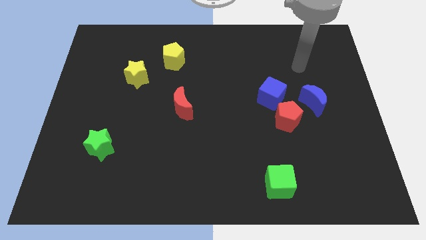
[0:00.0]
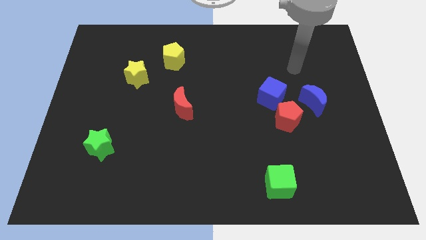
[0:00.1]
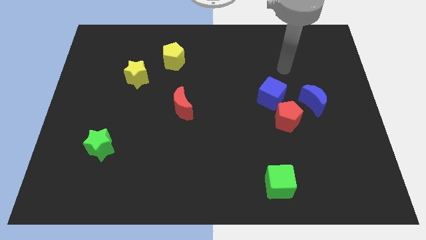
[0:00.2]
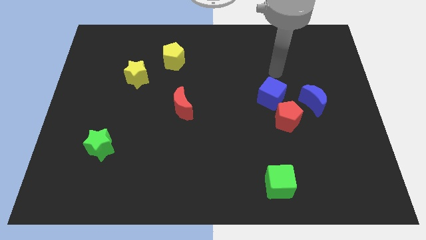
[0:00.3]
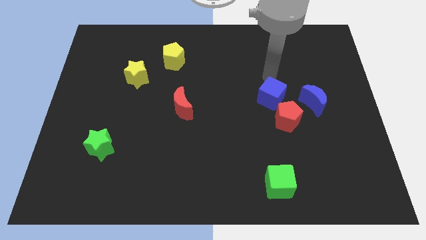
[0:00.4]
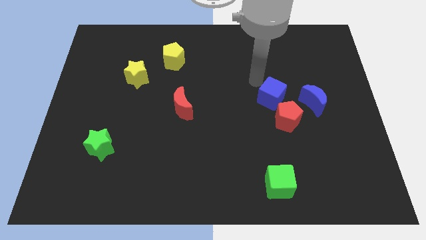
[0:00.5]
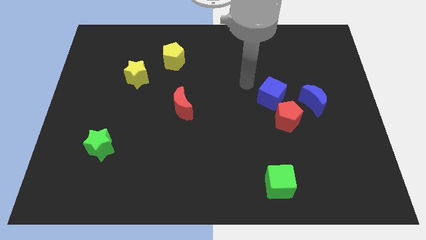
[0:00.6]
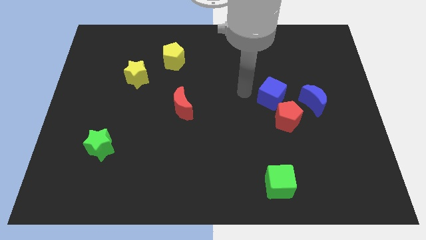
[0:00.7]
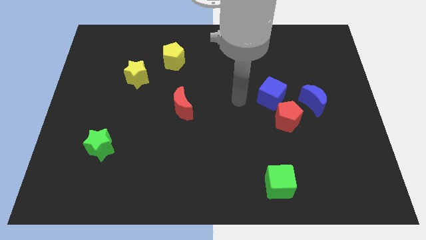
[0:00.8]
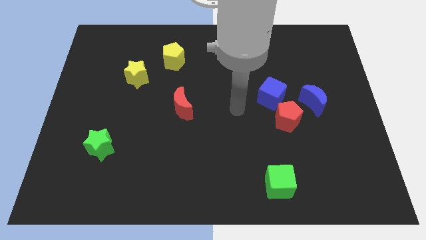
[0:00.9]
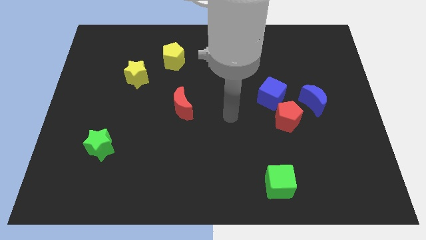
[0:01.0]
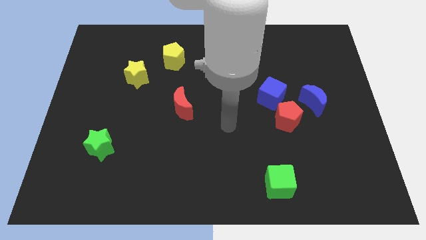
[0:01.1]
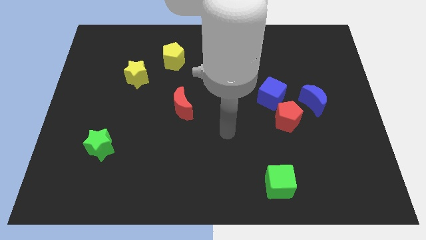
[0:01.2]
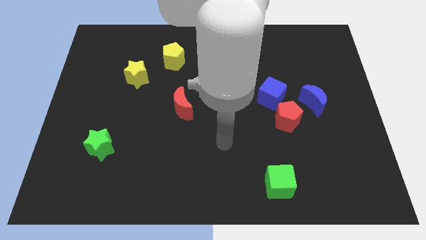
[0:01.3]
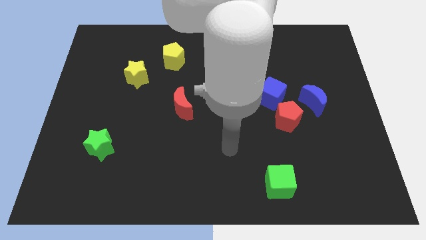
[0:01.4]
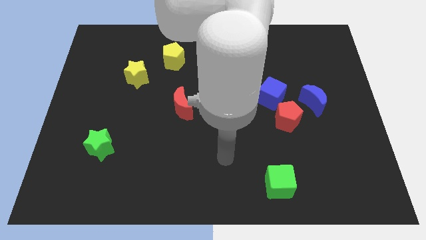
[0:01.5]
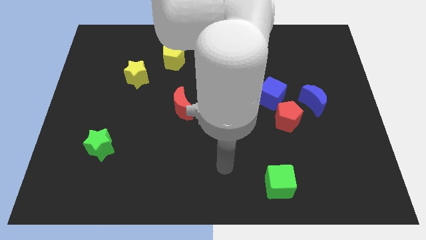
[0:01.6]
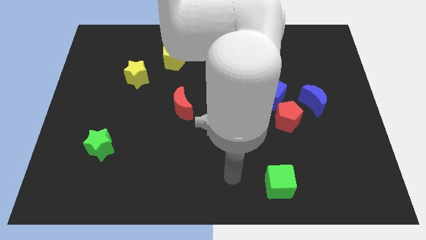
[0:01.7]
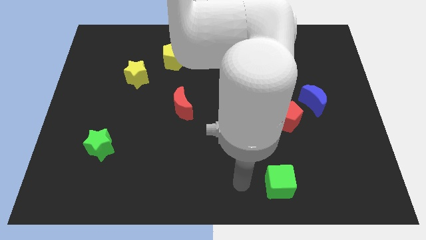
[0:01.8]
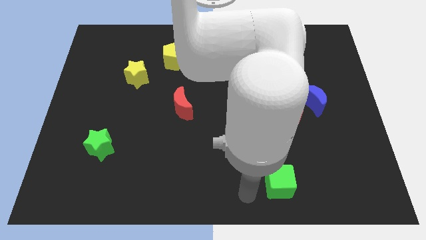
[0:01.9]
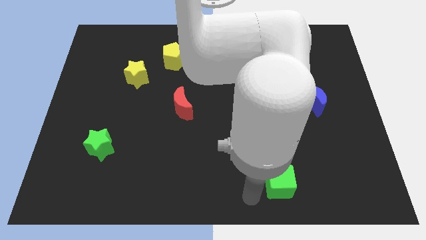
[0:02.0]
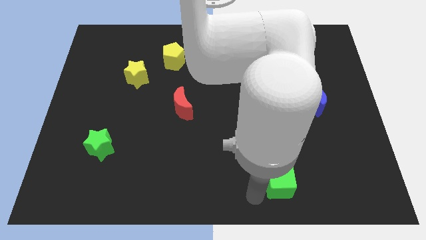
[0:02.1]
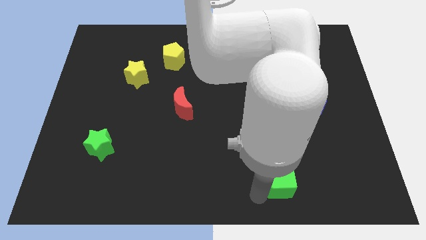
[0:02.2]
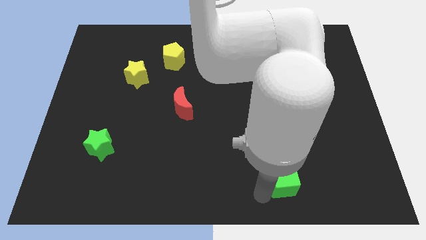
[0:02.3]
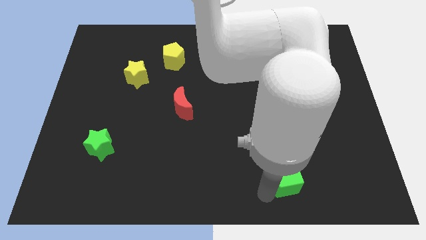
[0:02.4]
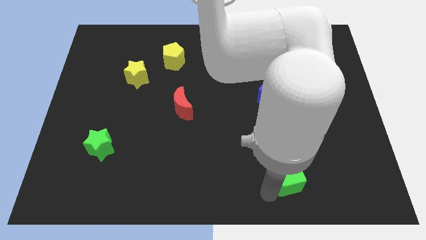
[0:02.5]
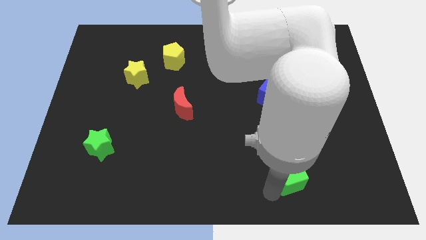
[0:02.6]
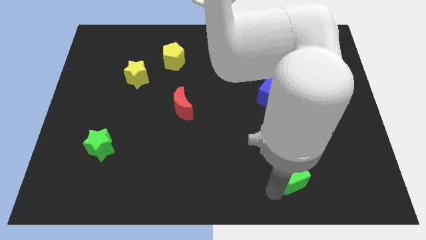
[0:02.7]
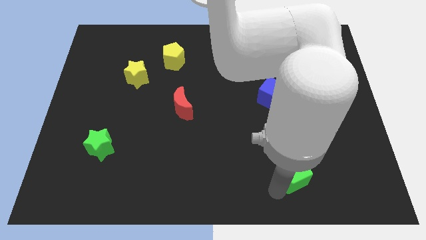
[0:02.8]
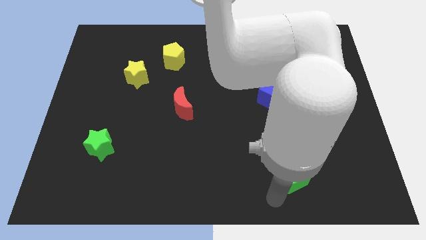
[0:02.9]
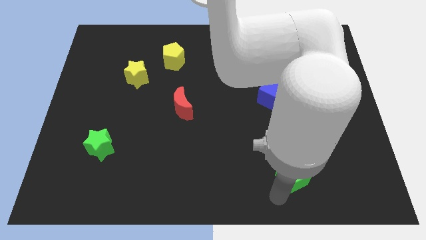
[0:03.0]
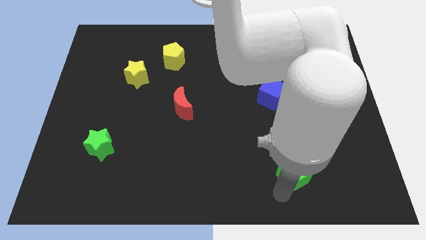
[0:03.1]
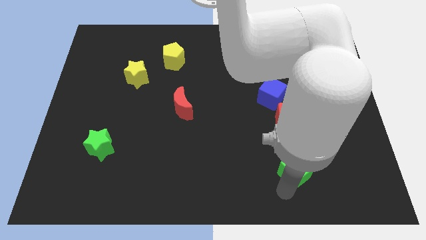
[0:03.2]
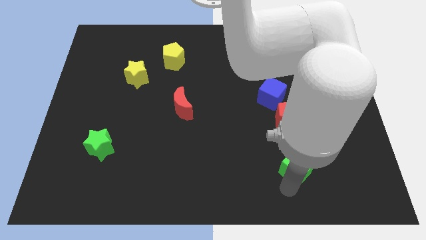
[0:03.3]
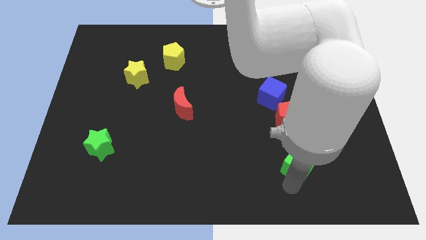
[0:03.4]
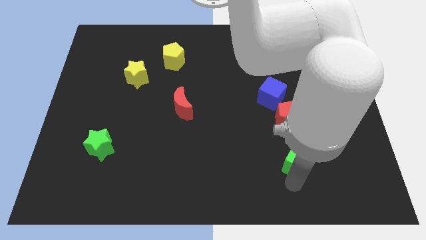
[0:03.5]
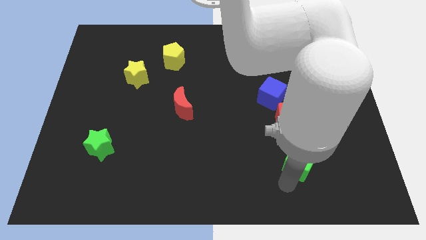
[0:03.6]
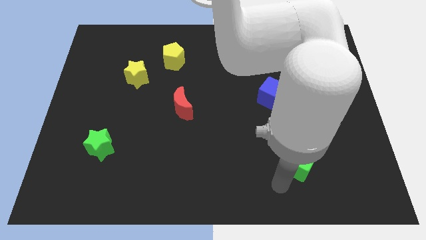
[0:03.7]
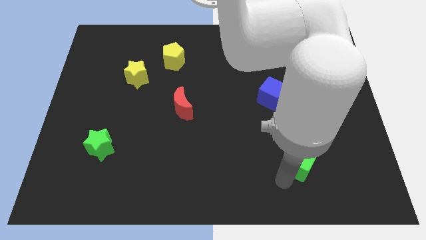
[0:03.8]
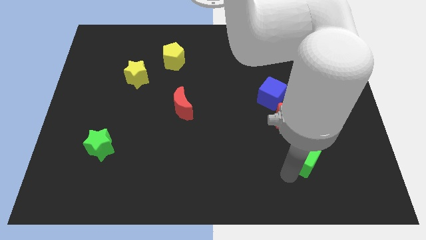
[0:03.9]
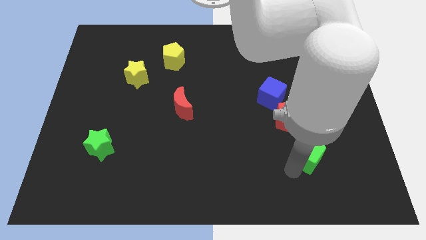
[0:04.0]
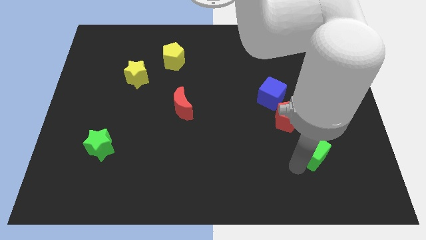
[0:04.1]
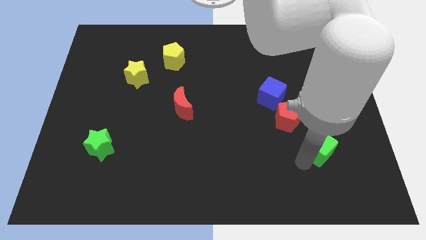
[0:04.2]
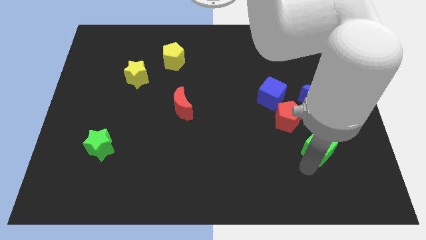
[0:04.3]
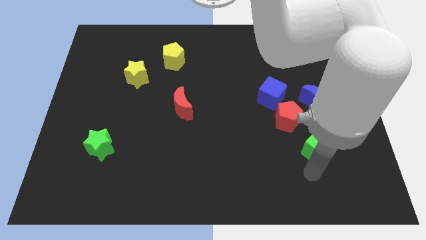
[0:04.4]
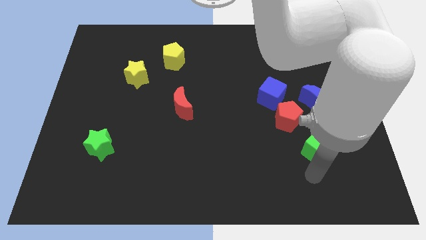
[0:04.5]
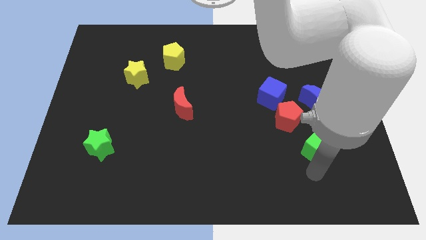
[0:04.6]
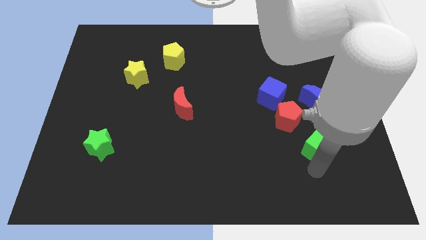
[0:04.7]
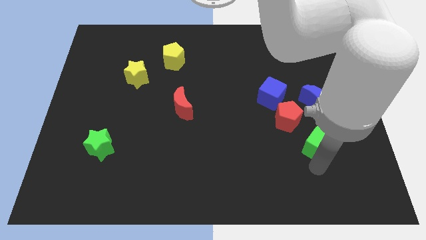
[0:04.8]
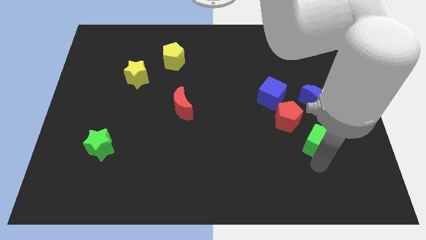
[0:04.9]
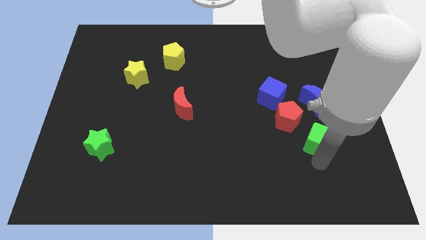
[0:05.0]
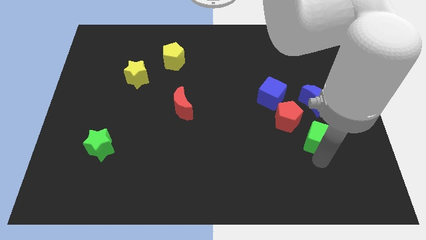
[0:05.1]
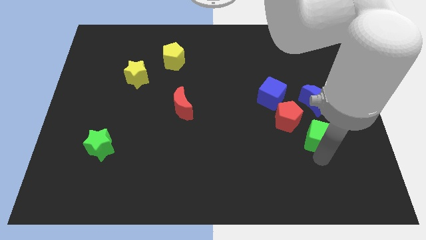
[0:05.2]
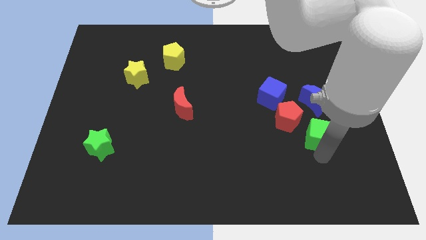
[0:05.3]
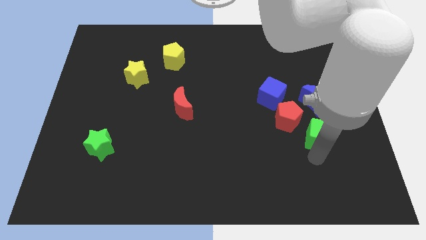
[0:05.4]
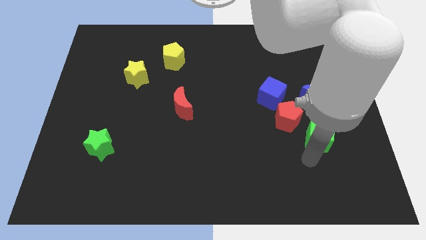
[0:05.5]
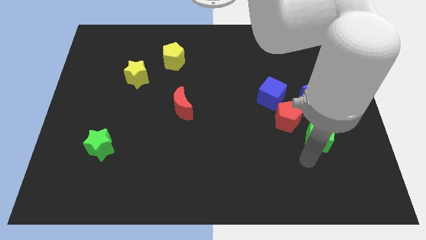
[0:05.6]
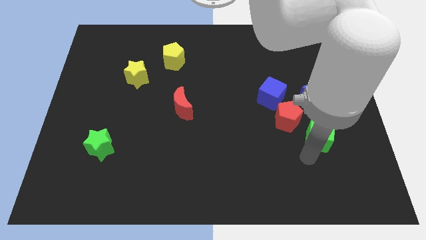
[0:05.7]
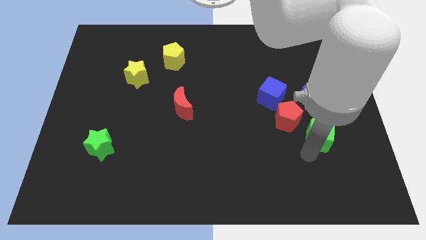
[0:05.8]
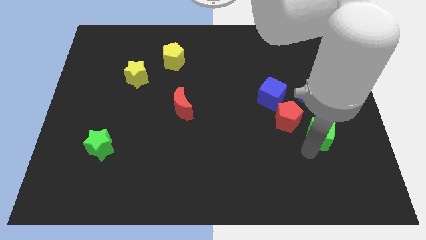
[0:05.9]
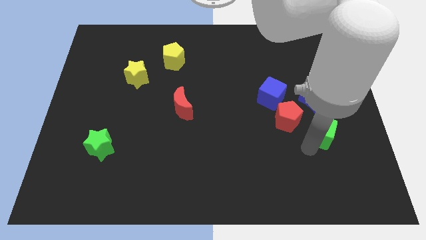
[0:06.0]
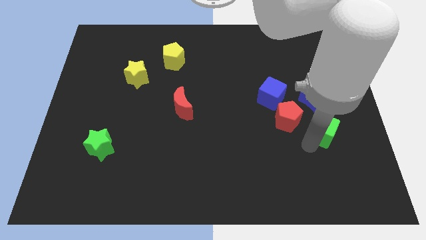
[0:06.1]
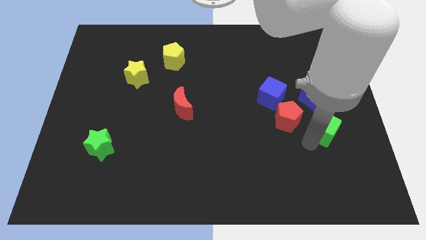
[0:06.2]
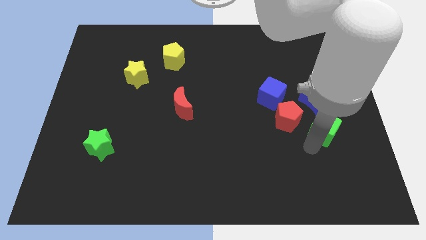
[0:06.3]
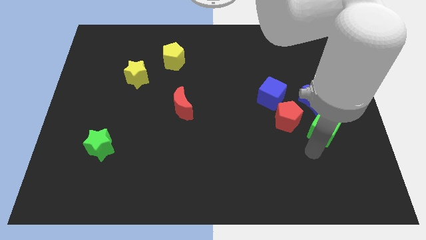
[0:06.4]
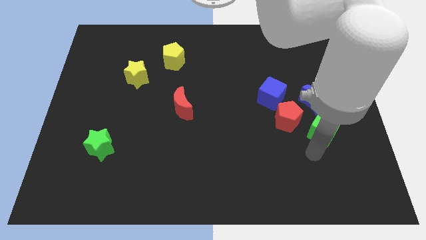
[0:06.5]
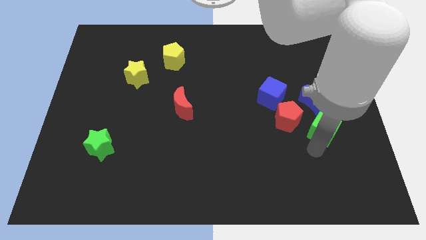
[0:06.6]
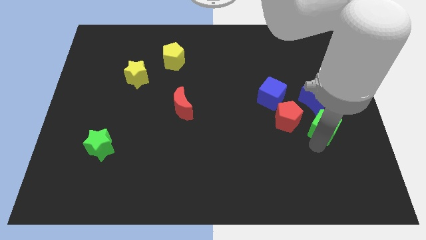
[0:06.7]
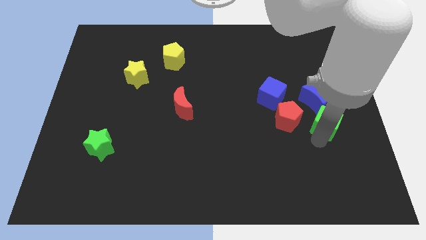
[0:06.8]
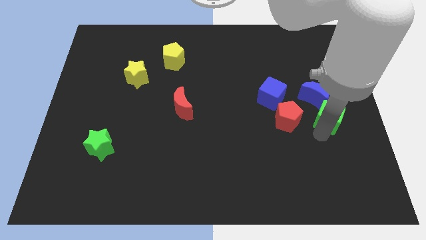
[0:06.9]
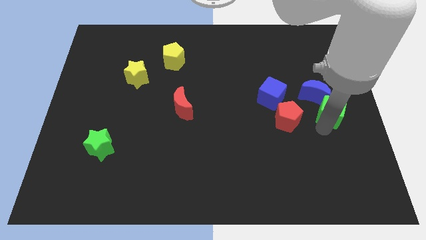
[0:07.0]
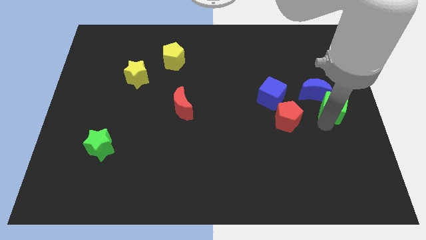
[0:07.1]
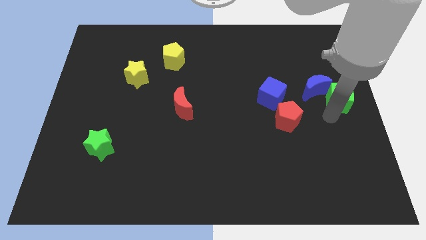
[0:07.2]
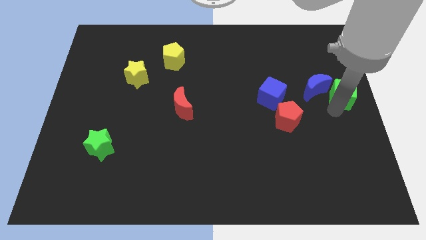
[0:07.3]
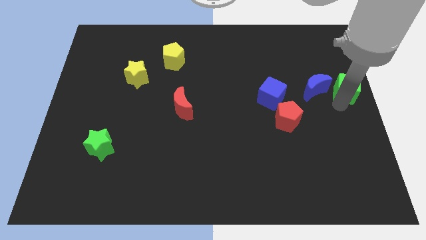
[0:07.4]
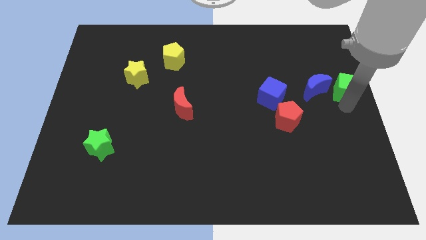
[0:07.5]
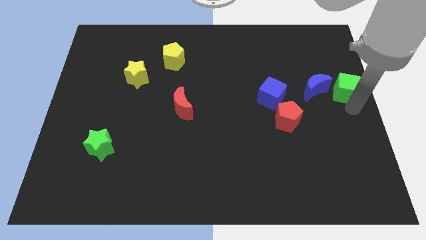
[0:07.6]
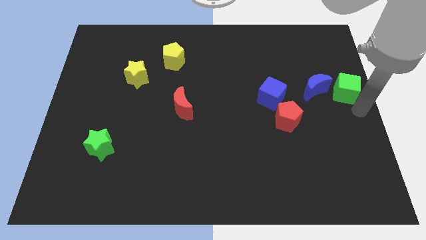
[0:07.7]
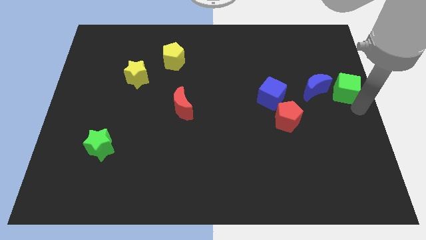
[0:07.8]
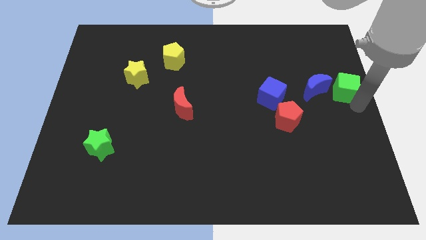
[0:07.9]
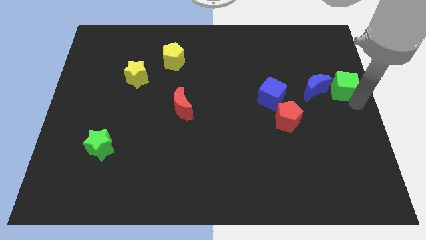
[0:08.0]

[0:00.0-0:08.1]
move the green cube to the top right of the blue moon
